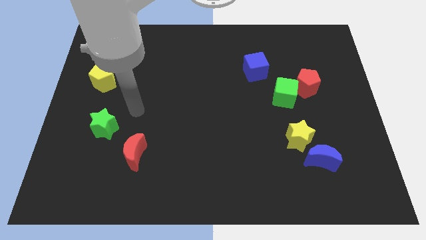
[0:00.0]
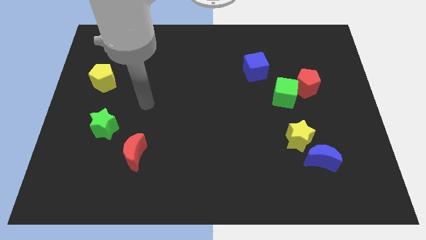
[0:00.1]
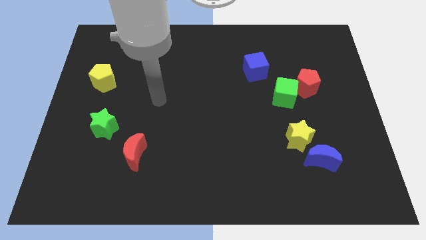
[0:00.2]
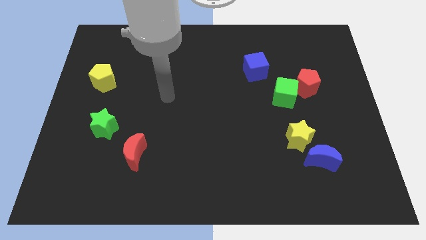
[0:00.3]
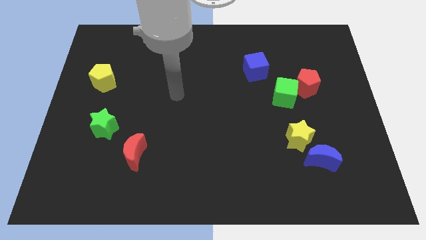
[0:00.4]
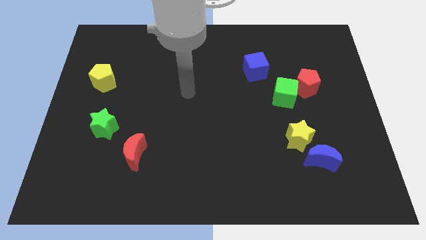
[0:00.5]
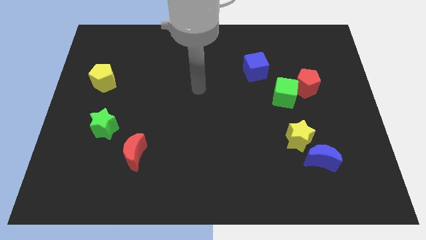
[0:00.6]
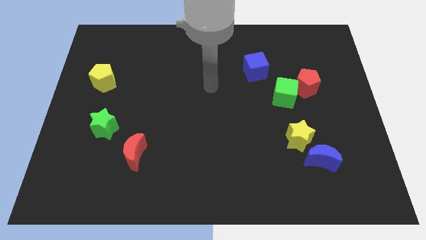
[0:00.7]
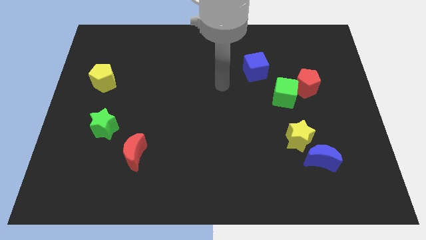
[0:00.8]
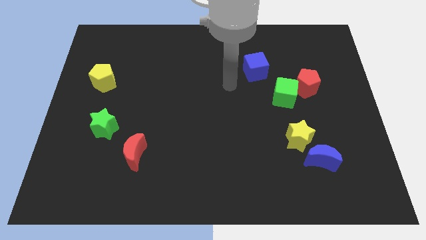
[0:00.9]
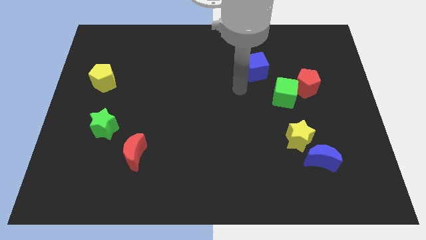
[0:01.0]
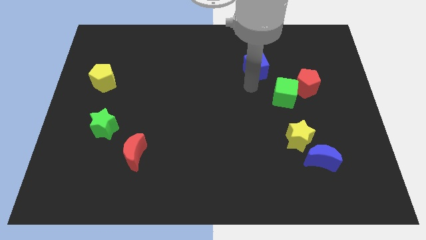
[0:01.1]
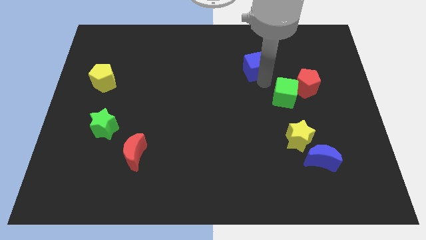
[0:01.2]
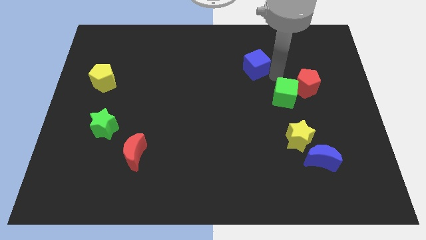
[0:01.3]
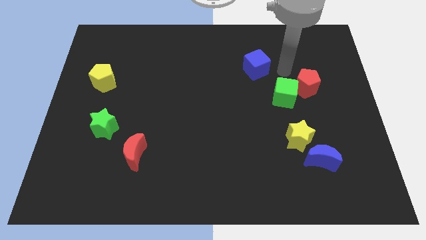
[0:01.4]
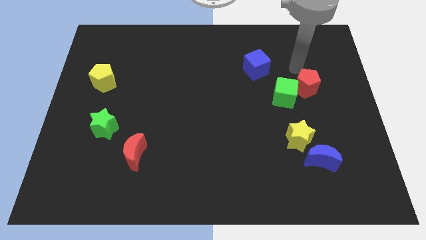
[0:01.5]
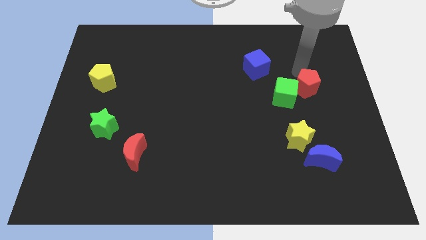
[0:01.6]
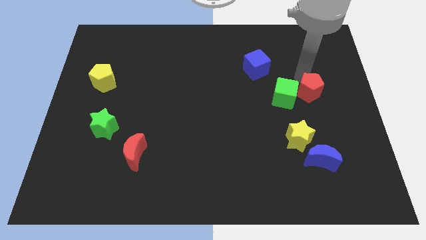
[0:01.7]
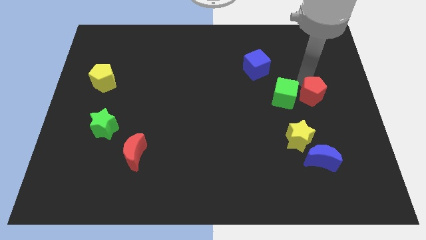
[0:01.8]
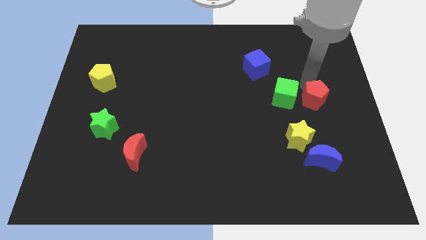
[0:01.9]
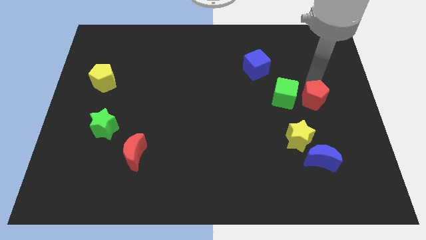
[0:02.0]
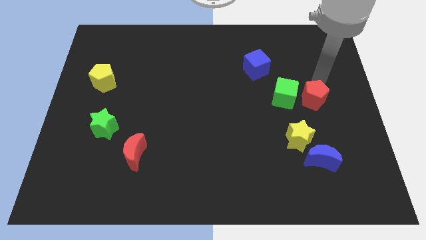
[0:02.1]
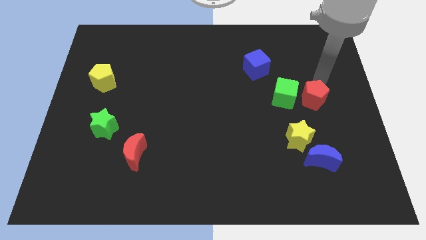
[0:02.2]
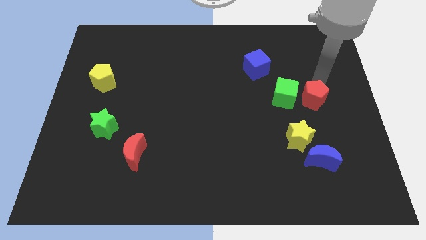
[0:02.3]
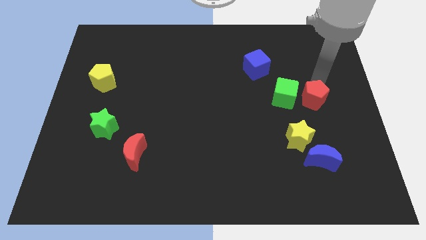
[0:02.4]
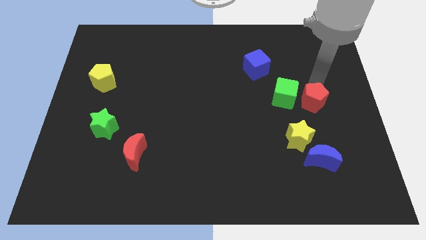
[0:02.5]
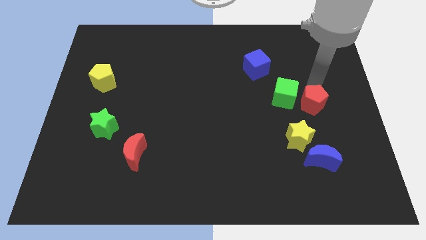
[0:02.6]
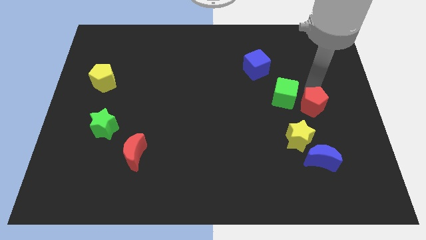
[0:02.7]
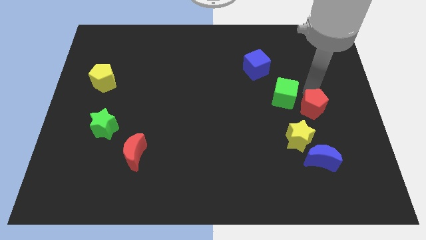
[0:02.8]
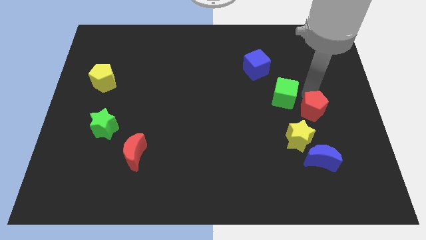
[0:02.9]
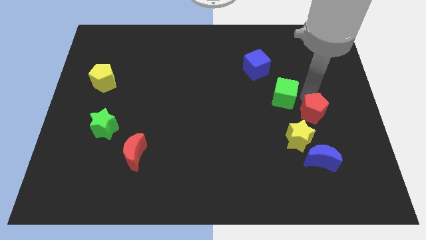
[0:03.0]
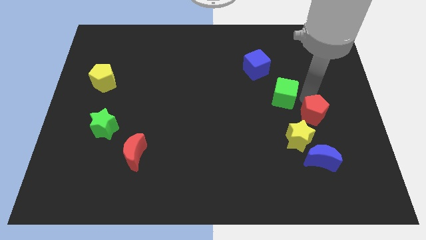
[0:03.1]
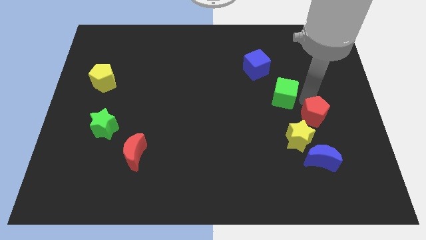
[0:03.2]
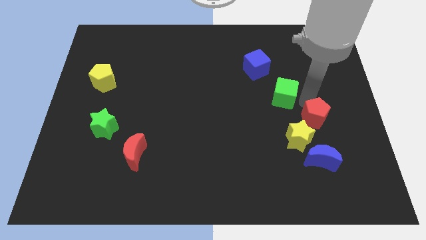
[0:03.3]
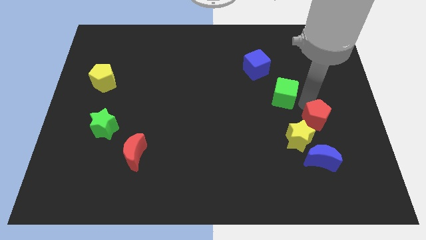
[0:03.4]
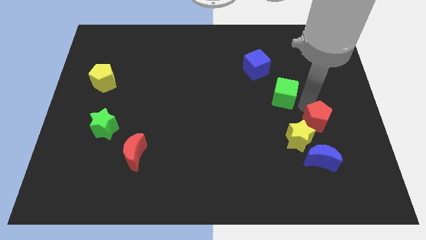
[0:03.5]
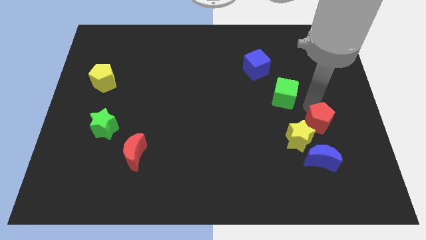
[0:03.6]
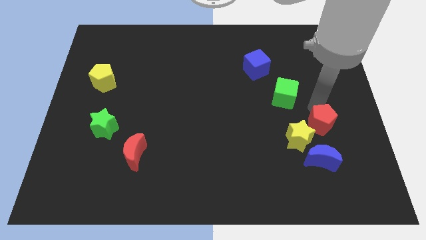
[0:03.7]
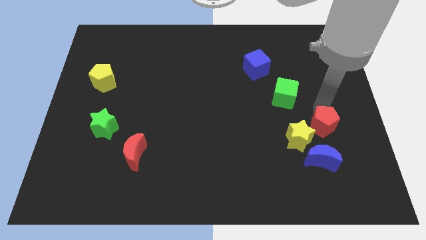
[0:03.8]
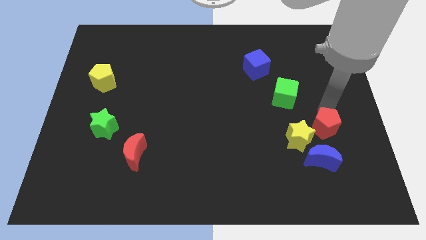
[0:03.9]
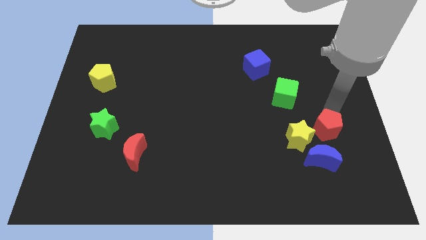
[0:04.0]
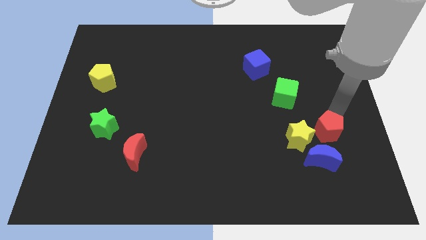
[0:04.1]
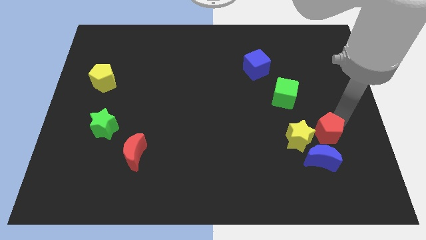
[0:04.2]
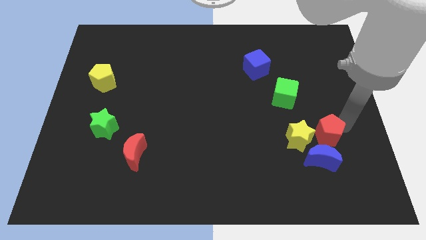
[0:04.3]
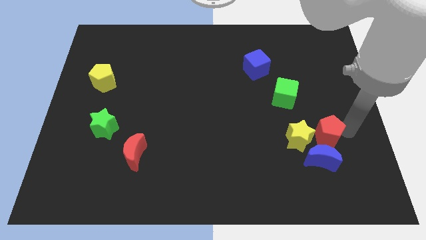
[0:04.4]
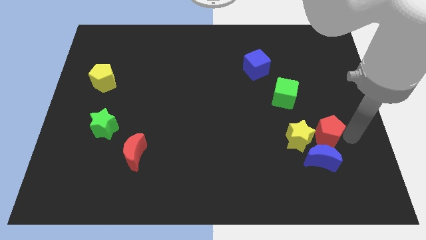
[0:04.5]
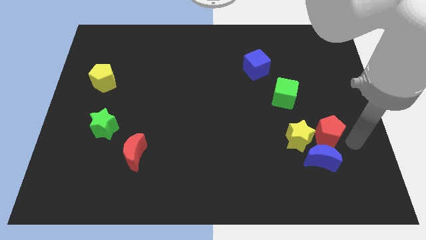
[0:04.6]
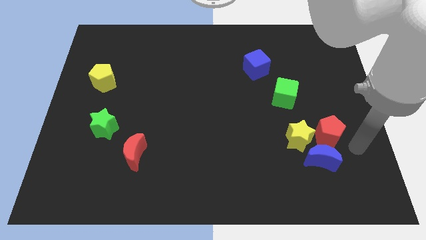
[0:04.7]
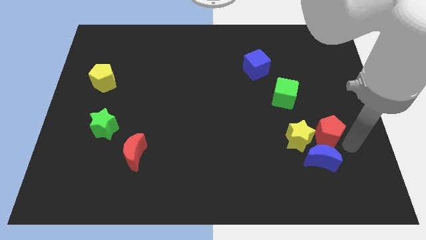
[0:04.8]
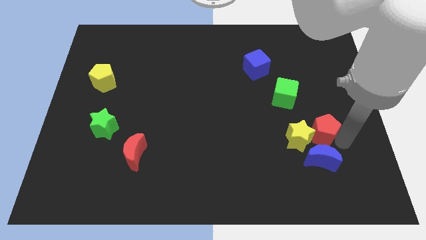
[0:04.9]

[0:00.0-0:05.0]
slide the red pentagon next to the yellow star

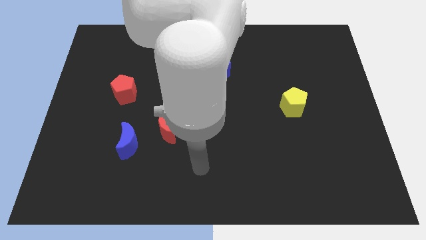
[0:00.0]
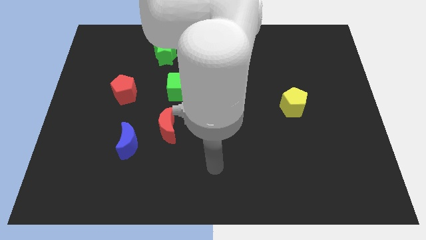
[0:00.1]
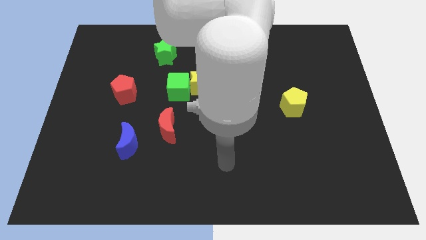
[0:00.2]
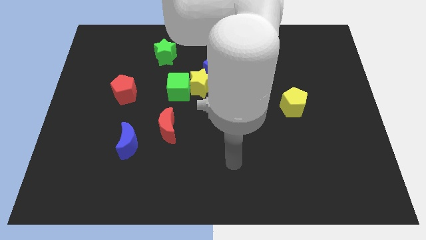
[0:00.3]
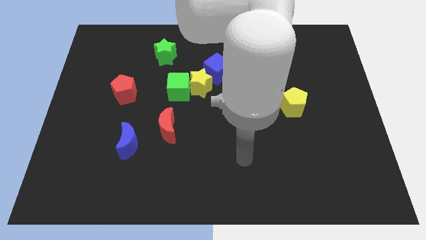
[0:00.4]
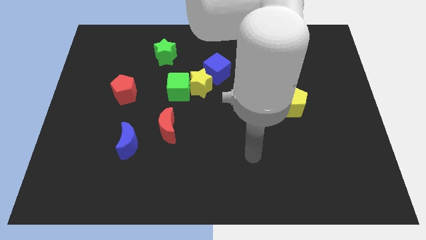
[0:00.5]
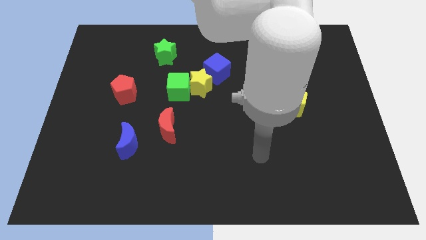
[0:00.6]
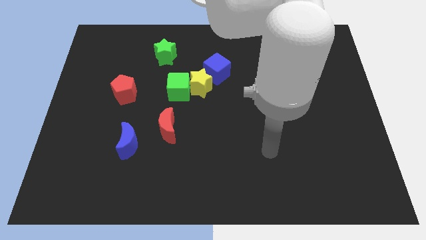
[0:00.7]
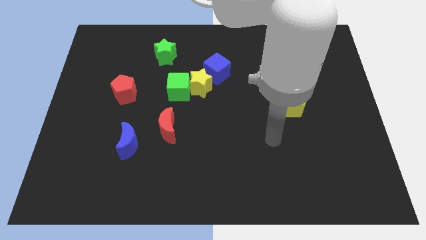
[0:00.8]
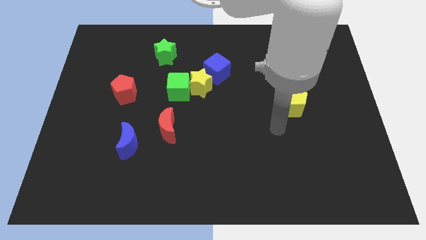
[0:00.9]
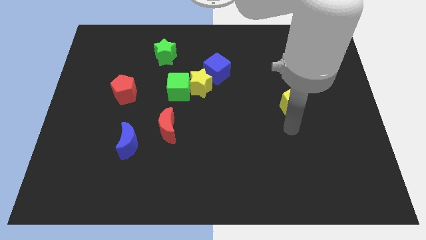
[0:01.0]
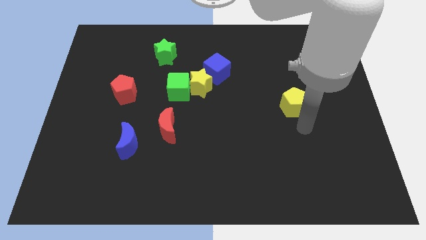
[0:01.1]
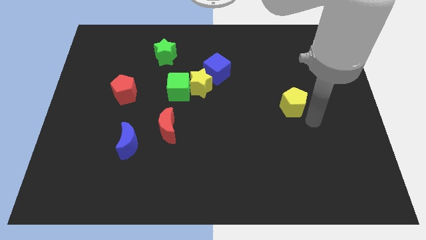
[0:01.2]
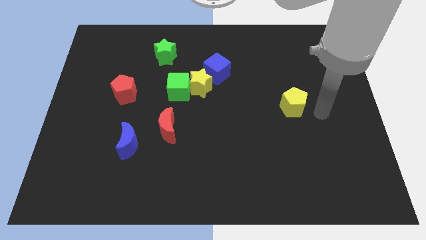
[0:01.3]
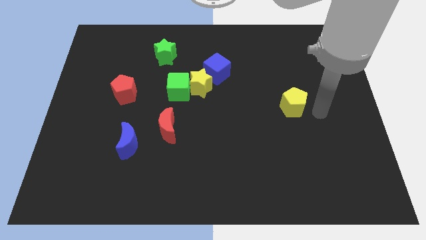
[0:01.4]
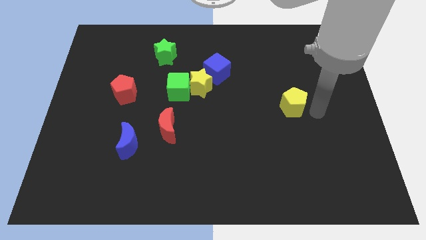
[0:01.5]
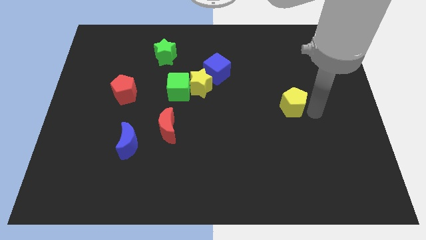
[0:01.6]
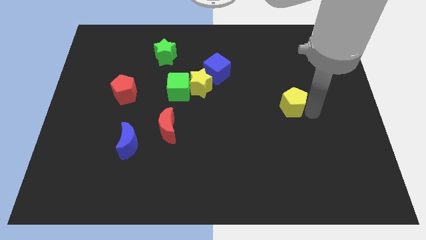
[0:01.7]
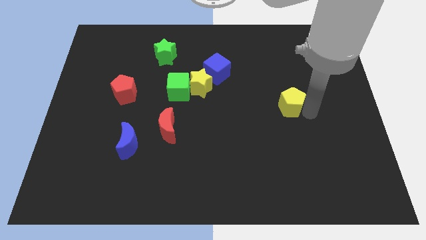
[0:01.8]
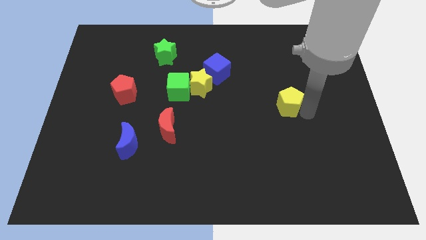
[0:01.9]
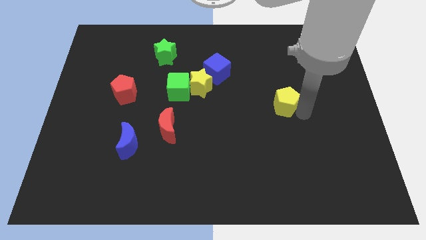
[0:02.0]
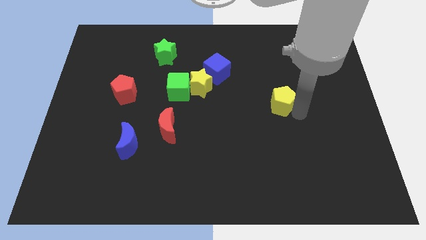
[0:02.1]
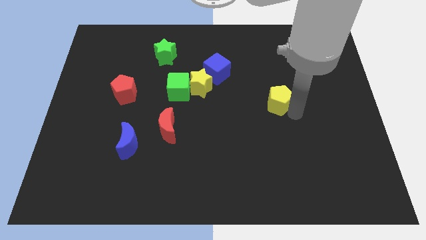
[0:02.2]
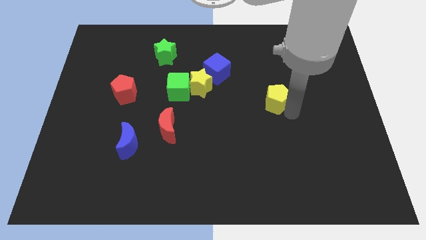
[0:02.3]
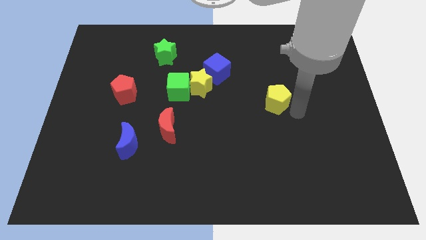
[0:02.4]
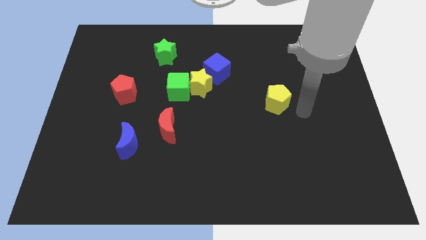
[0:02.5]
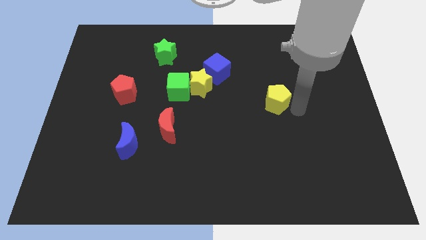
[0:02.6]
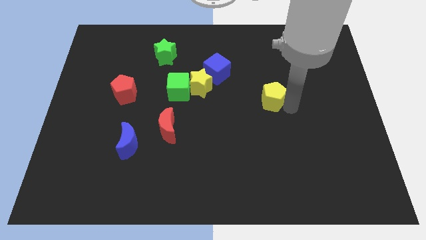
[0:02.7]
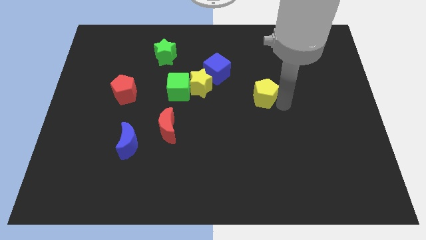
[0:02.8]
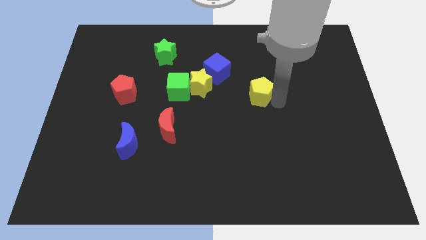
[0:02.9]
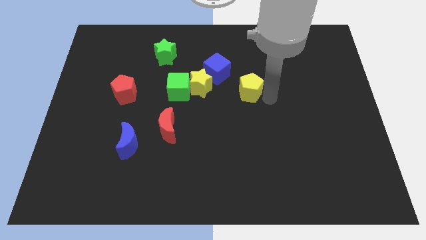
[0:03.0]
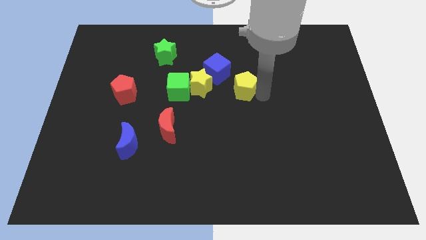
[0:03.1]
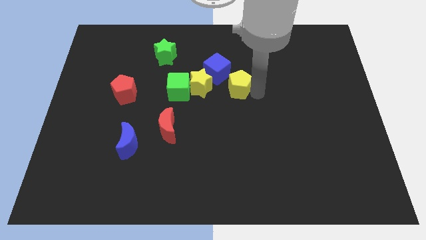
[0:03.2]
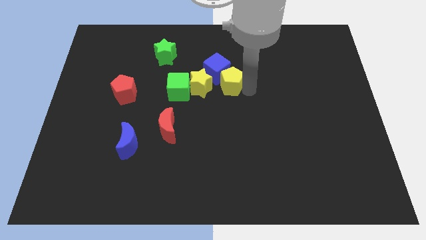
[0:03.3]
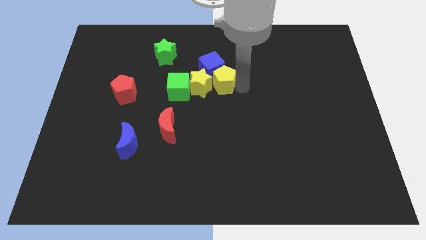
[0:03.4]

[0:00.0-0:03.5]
slide the yellow pentagon close to the yellow star
